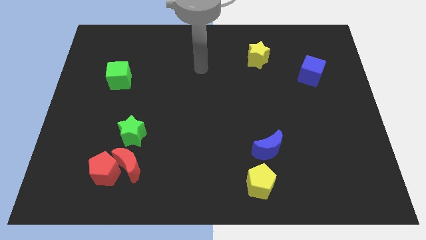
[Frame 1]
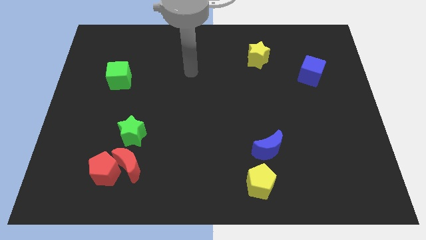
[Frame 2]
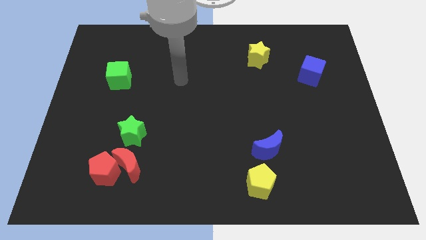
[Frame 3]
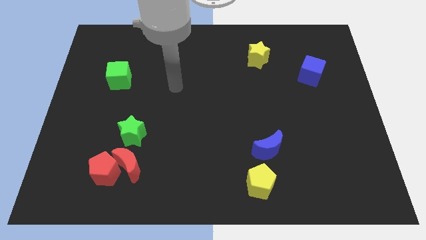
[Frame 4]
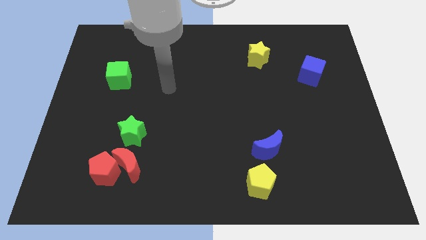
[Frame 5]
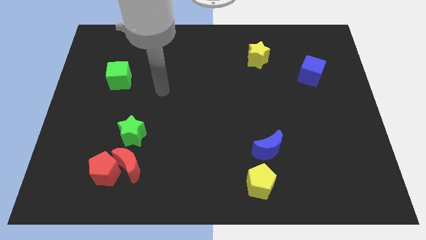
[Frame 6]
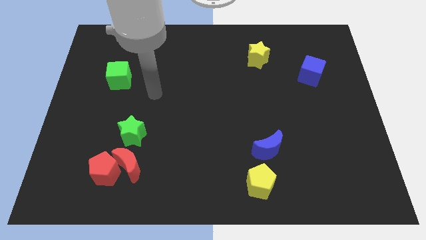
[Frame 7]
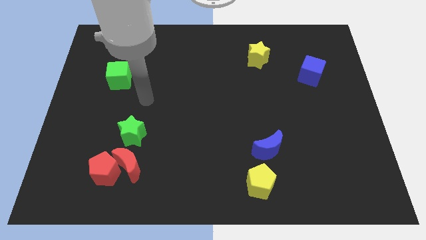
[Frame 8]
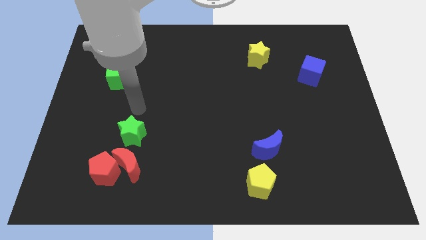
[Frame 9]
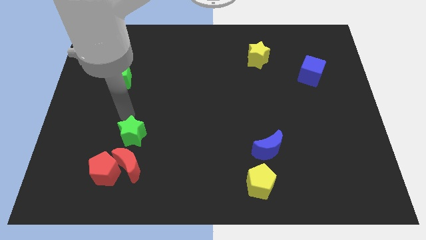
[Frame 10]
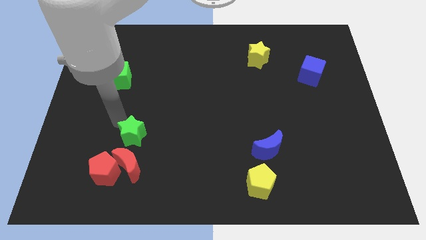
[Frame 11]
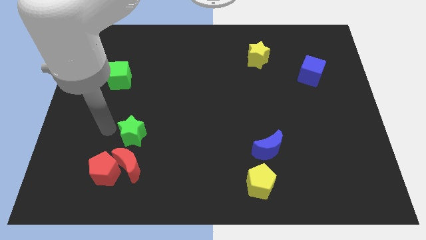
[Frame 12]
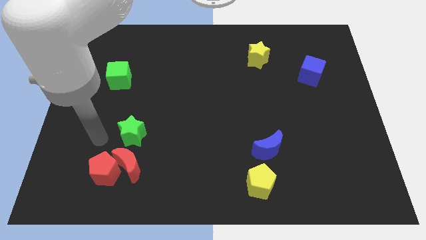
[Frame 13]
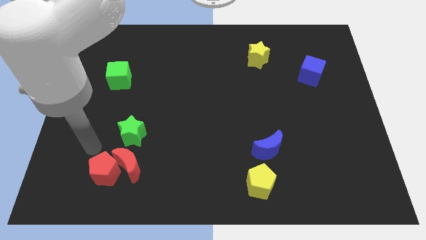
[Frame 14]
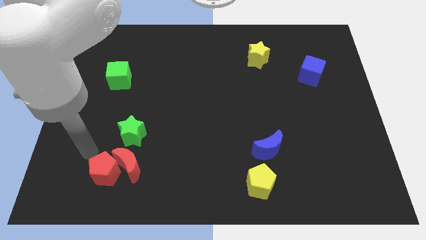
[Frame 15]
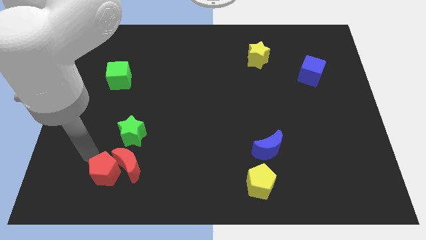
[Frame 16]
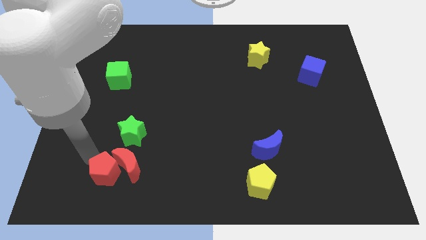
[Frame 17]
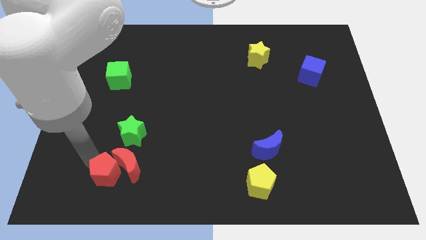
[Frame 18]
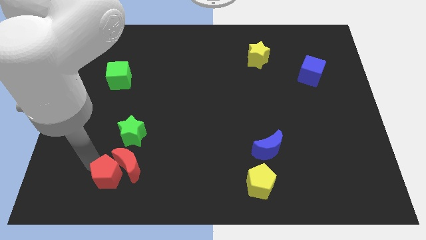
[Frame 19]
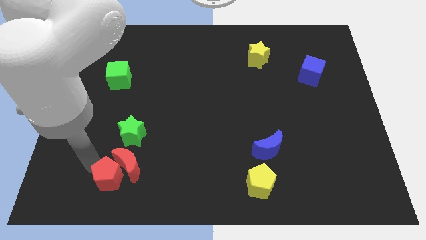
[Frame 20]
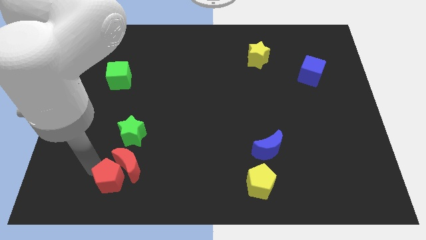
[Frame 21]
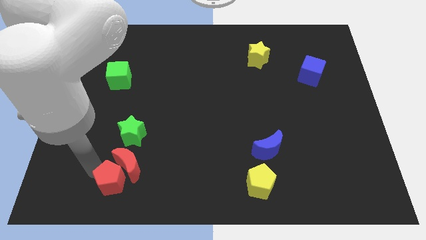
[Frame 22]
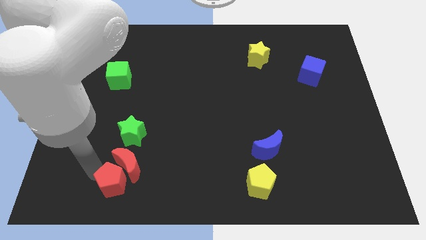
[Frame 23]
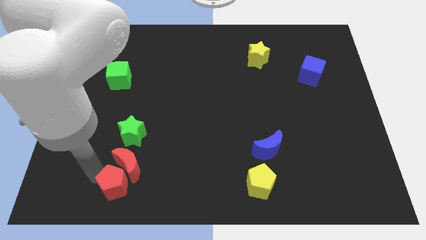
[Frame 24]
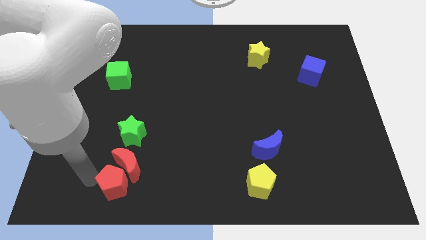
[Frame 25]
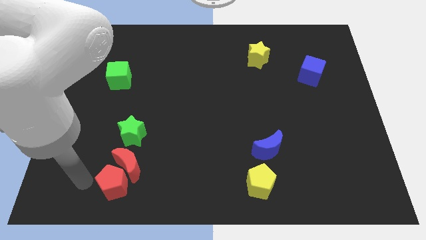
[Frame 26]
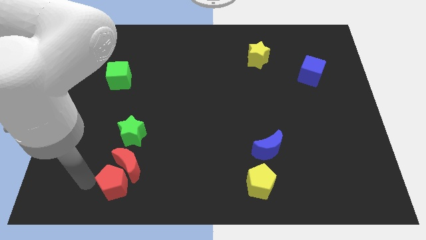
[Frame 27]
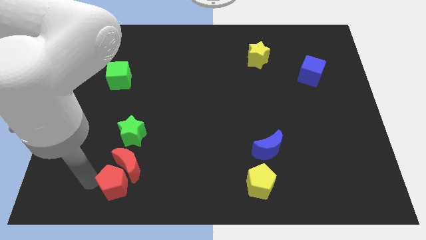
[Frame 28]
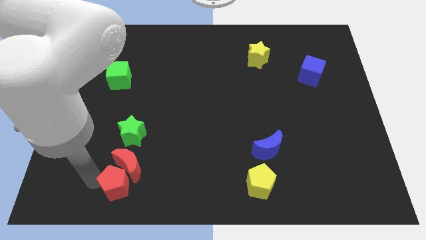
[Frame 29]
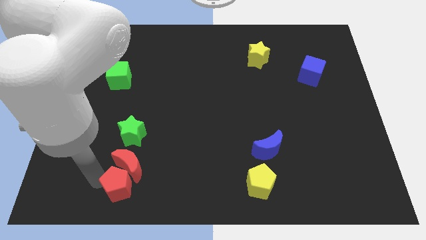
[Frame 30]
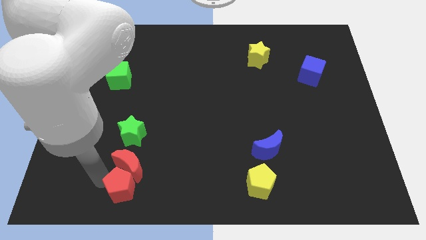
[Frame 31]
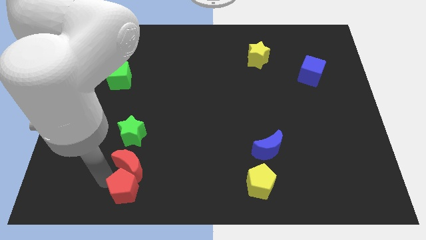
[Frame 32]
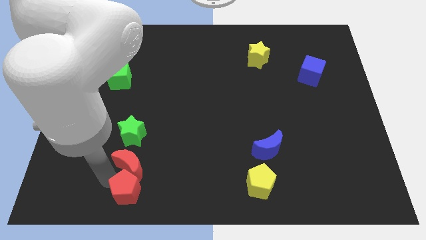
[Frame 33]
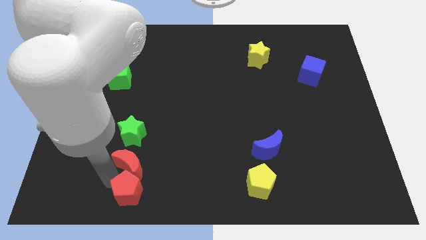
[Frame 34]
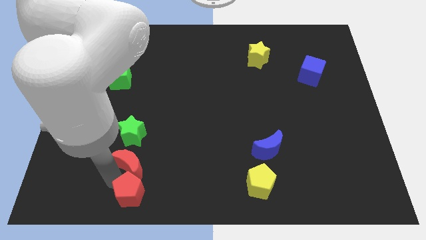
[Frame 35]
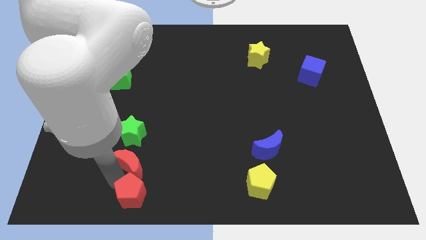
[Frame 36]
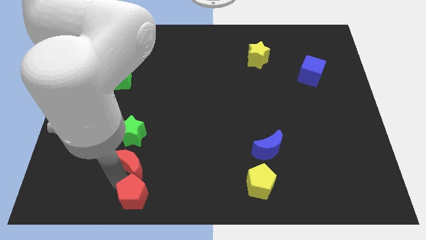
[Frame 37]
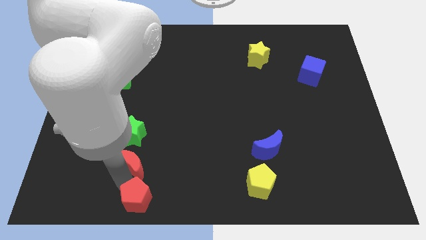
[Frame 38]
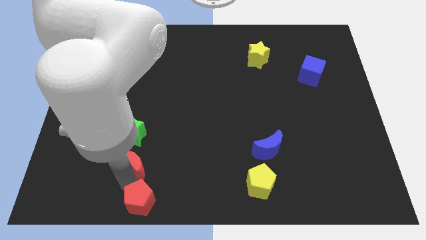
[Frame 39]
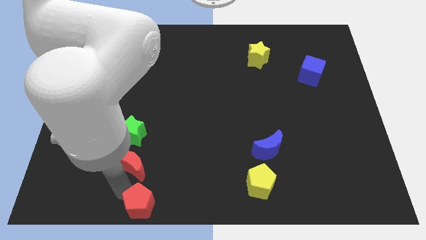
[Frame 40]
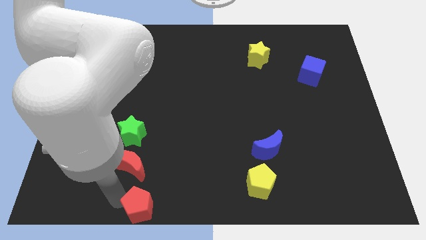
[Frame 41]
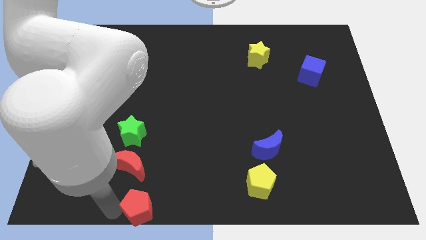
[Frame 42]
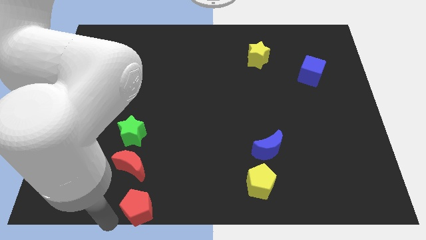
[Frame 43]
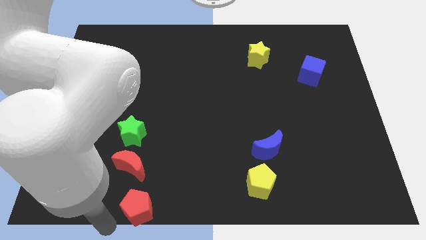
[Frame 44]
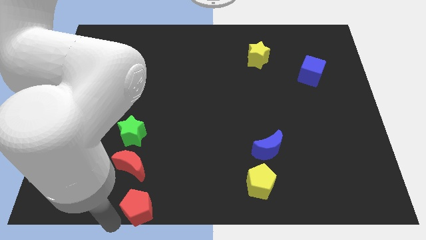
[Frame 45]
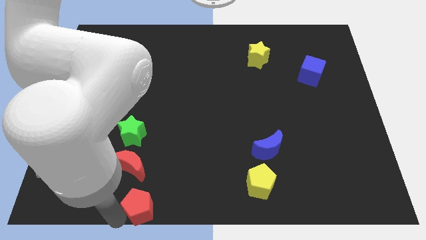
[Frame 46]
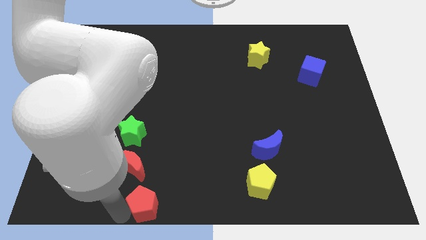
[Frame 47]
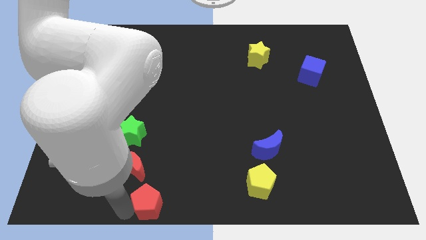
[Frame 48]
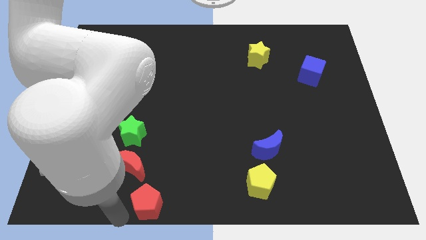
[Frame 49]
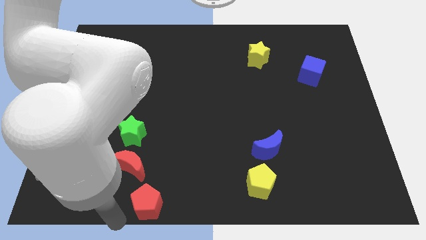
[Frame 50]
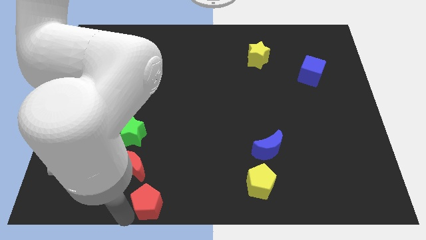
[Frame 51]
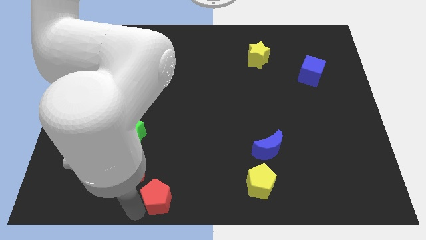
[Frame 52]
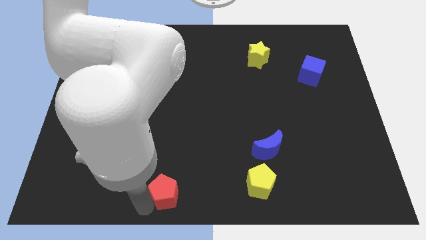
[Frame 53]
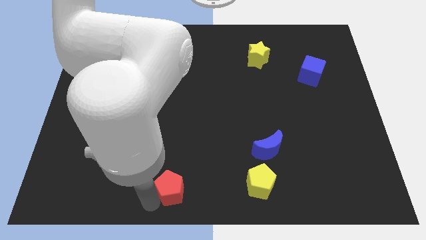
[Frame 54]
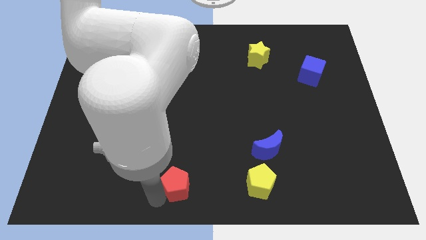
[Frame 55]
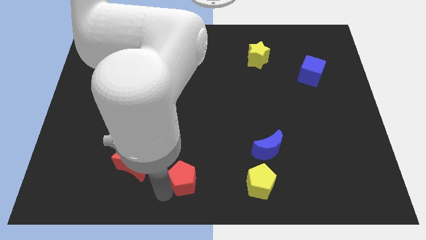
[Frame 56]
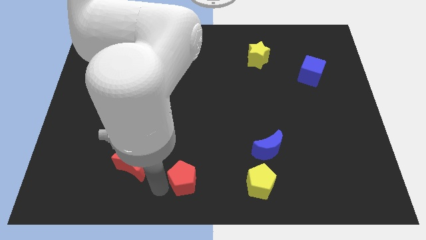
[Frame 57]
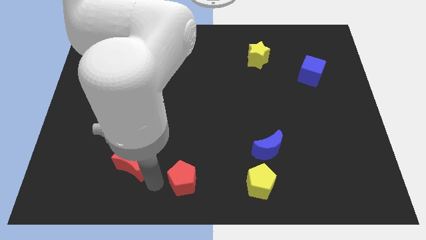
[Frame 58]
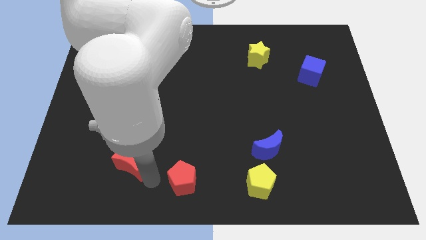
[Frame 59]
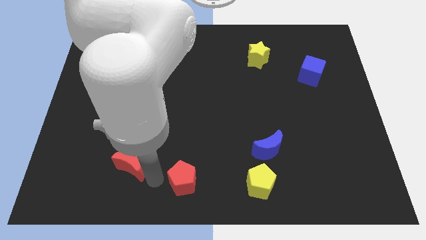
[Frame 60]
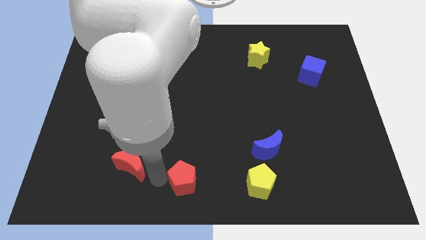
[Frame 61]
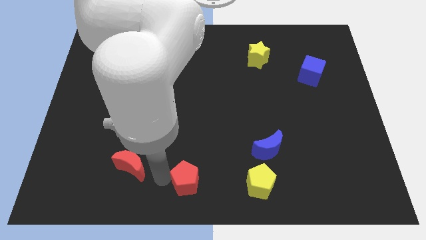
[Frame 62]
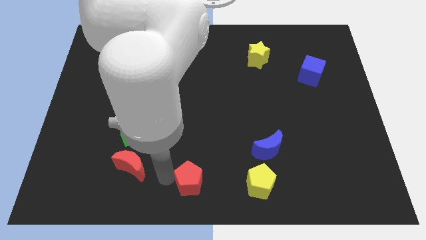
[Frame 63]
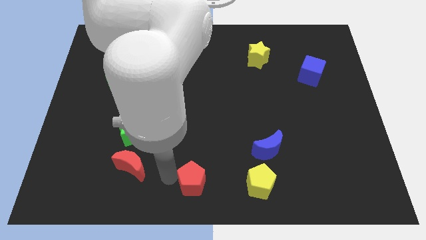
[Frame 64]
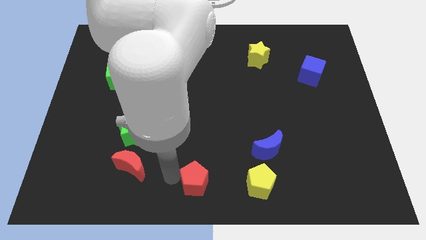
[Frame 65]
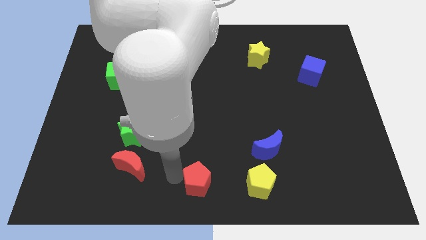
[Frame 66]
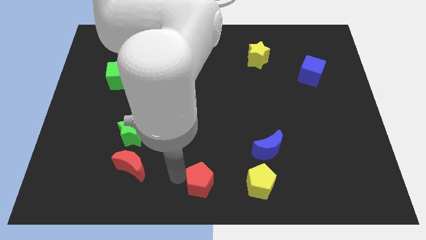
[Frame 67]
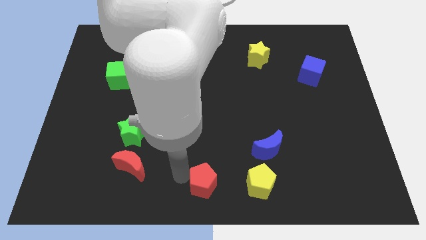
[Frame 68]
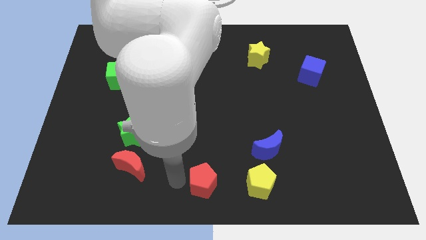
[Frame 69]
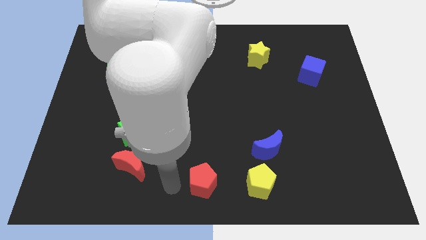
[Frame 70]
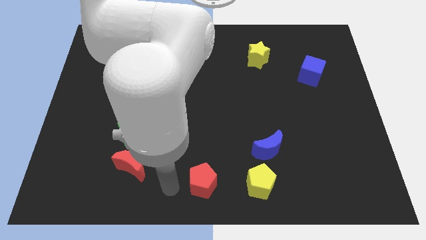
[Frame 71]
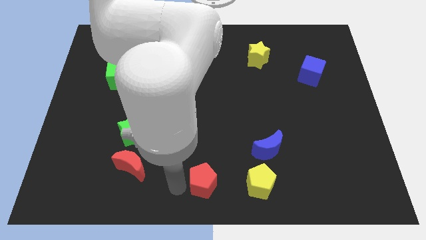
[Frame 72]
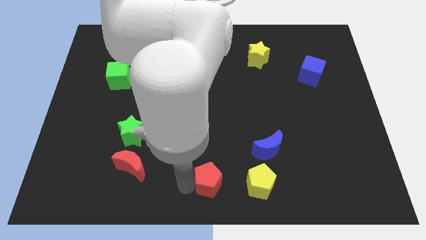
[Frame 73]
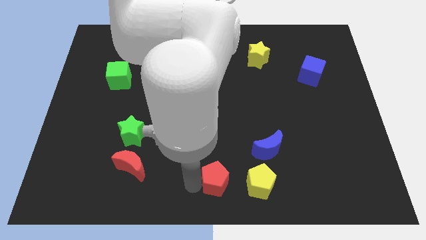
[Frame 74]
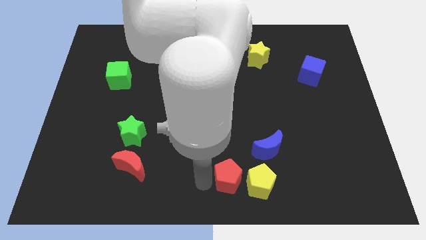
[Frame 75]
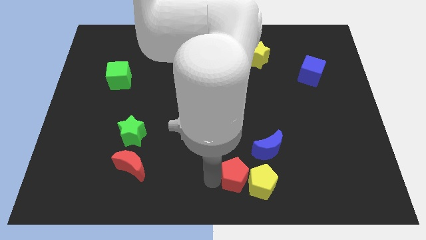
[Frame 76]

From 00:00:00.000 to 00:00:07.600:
move the red pentagon next to the yellow pentagon
